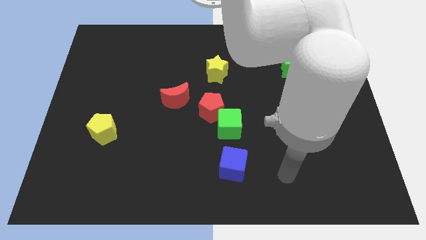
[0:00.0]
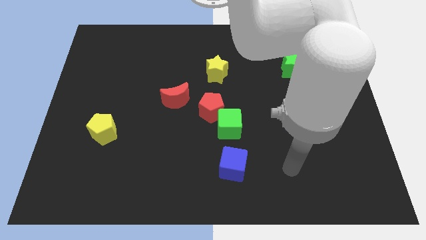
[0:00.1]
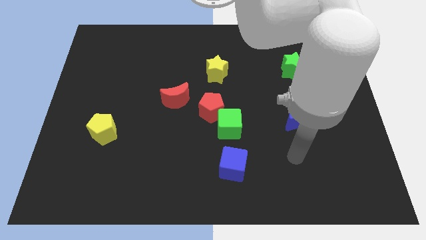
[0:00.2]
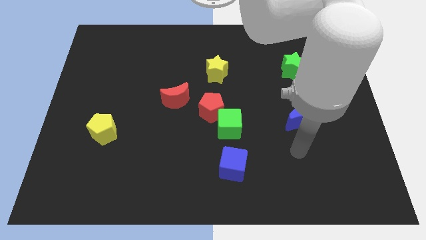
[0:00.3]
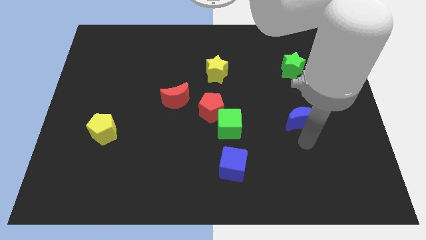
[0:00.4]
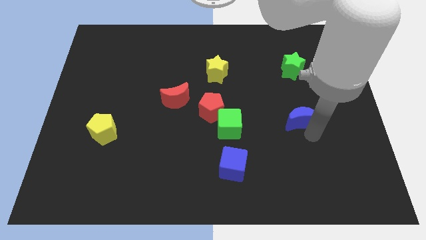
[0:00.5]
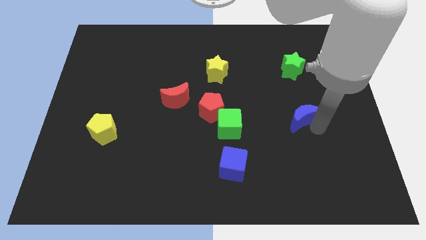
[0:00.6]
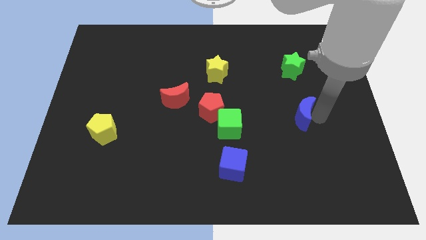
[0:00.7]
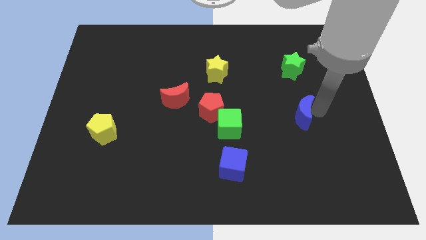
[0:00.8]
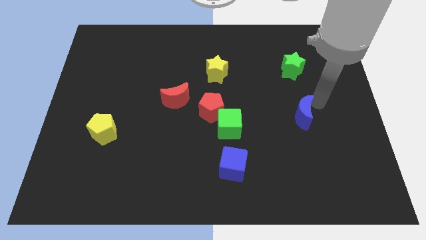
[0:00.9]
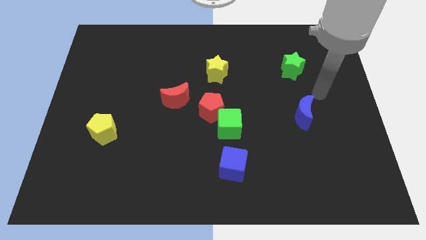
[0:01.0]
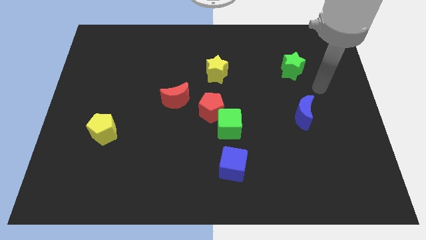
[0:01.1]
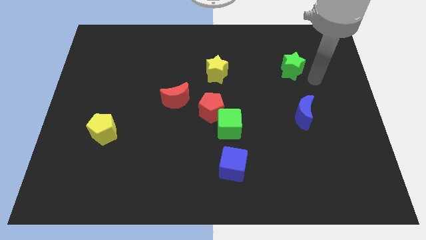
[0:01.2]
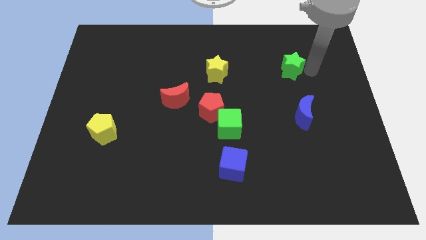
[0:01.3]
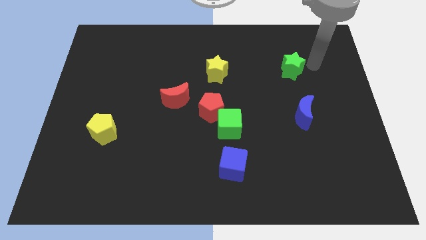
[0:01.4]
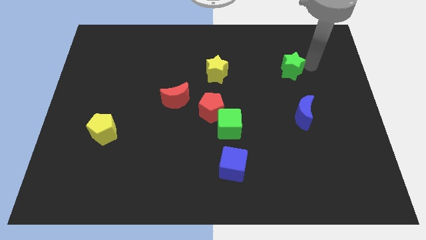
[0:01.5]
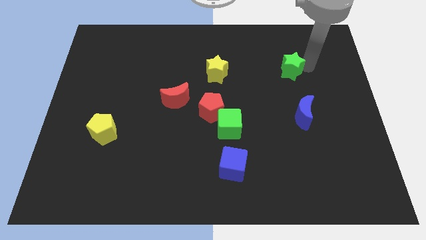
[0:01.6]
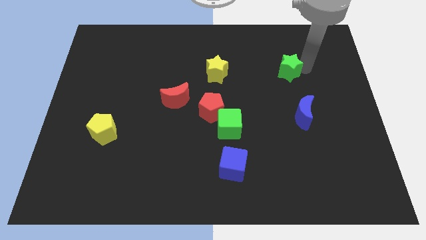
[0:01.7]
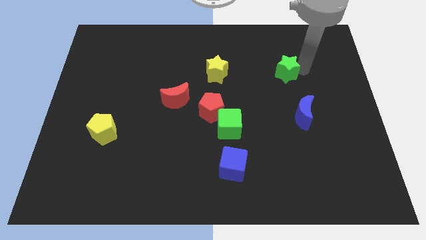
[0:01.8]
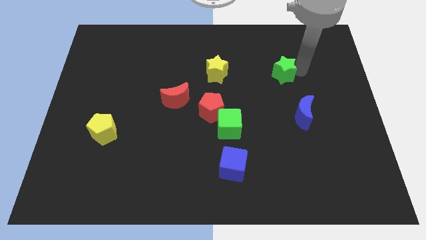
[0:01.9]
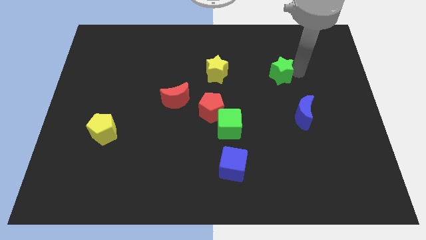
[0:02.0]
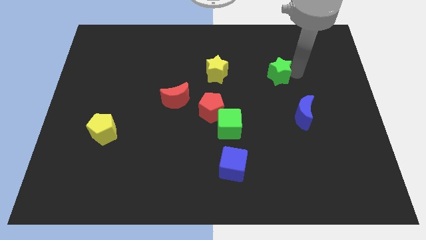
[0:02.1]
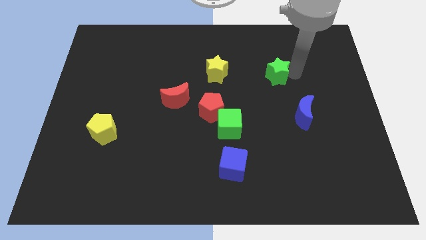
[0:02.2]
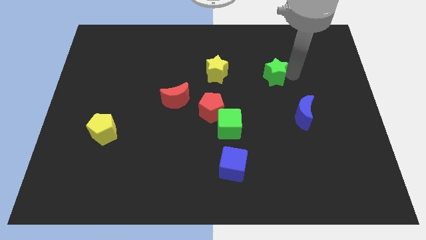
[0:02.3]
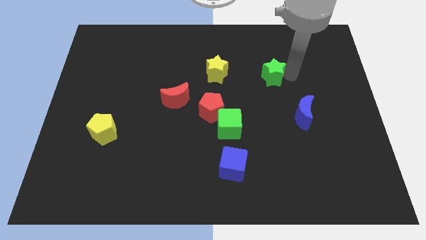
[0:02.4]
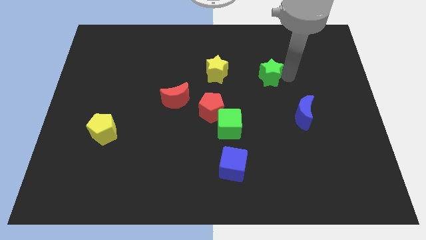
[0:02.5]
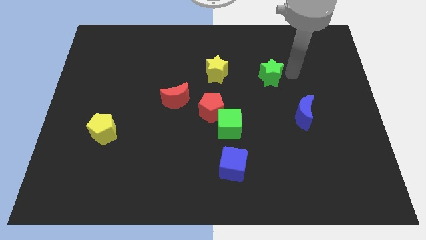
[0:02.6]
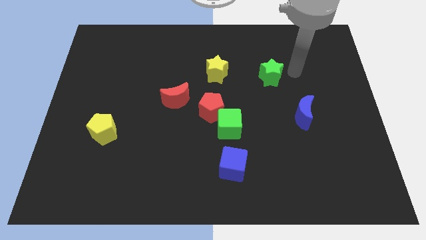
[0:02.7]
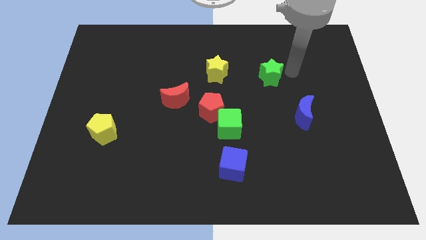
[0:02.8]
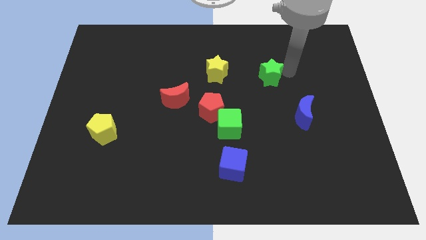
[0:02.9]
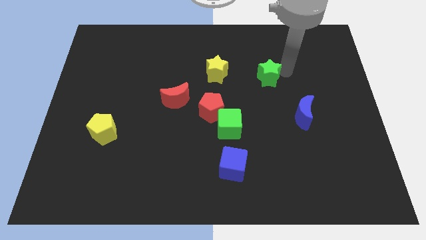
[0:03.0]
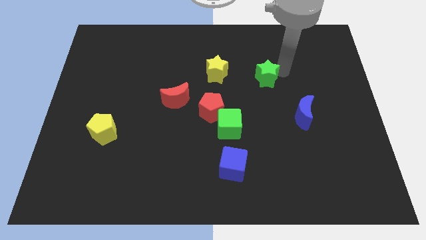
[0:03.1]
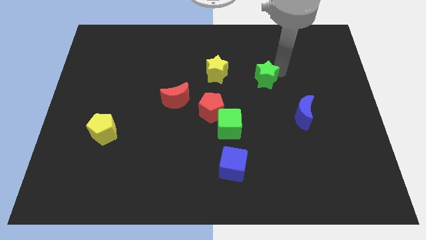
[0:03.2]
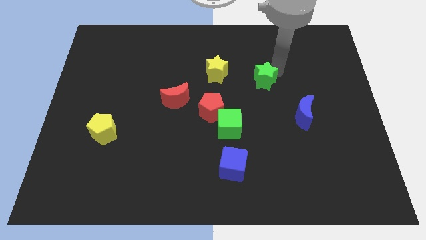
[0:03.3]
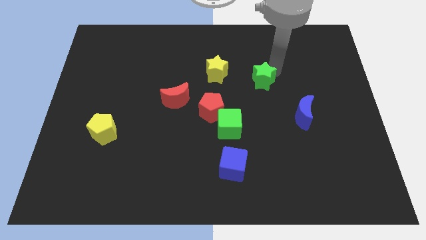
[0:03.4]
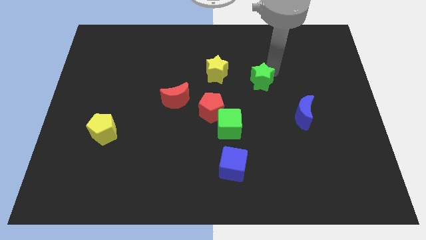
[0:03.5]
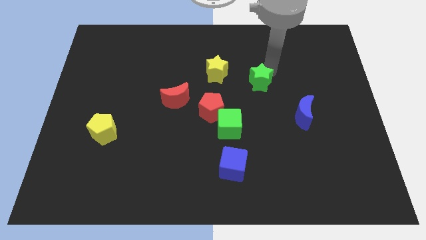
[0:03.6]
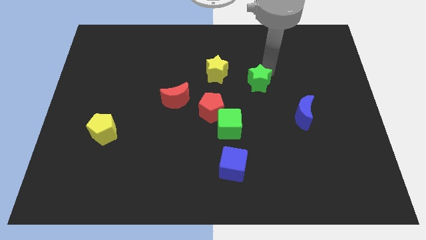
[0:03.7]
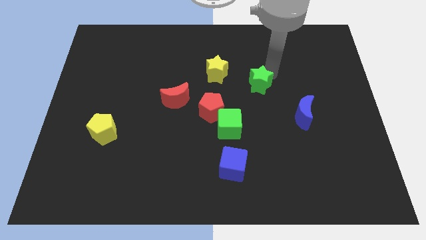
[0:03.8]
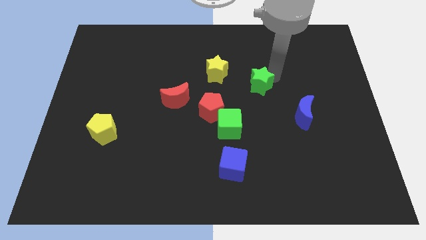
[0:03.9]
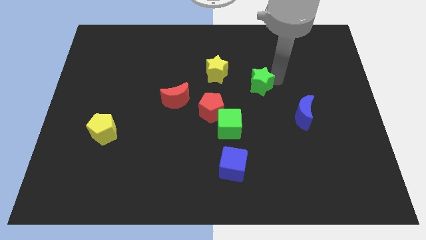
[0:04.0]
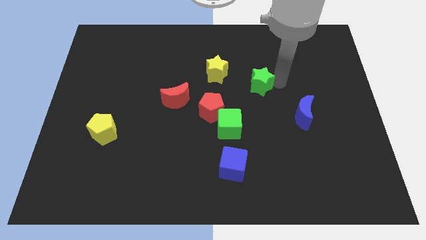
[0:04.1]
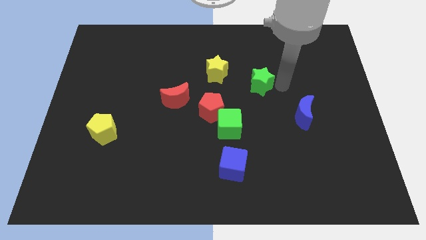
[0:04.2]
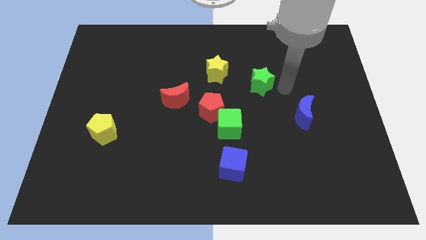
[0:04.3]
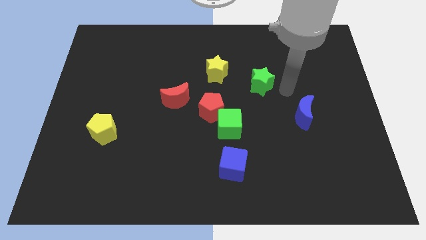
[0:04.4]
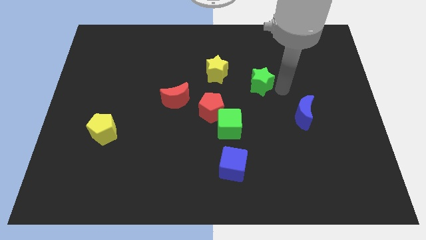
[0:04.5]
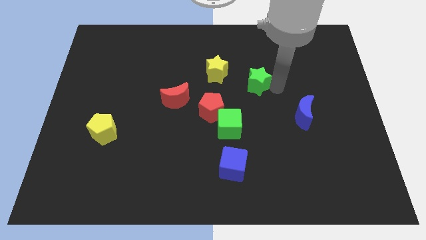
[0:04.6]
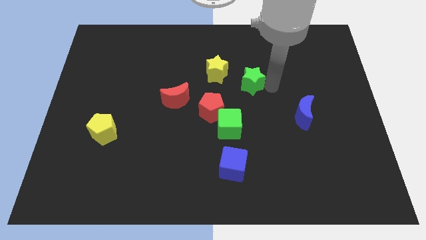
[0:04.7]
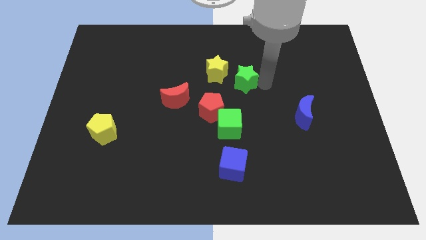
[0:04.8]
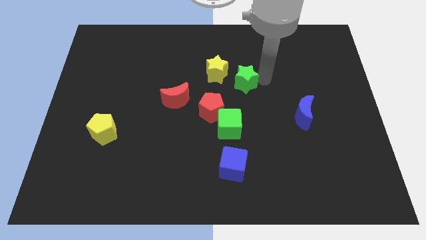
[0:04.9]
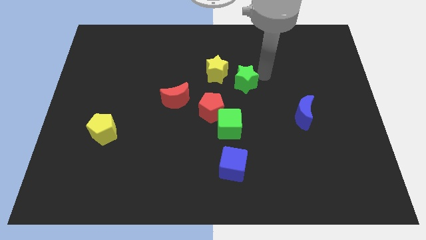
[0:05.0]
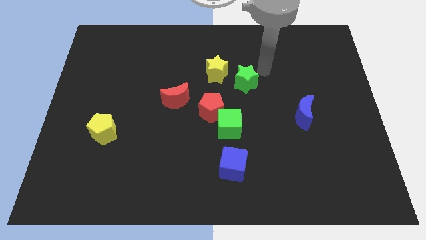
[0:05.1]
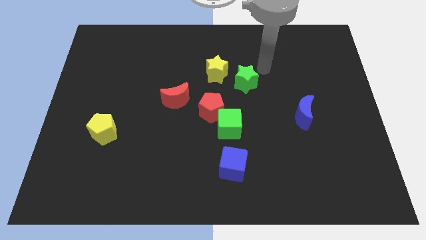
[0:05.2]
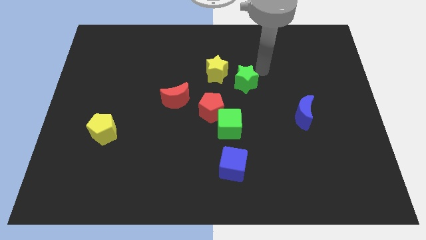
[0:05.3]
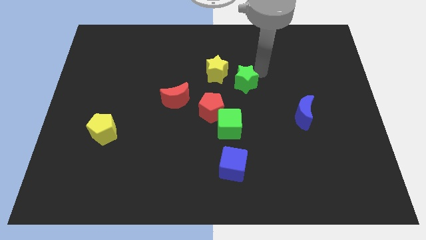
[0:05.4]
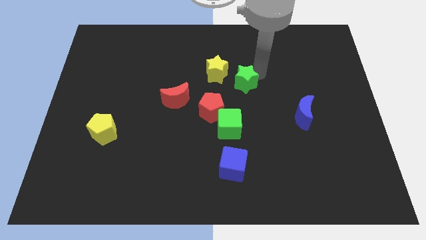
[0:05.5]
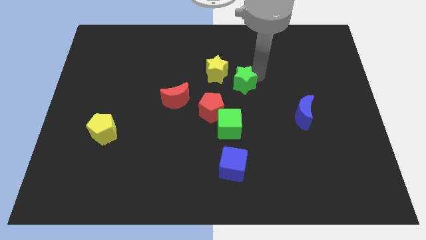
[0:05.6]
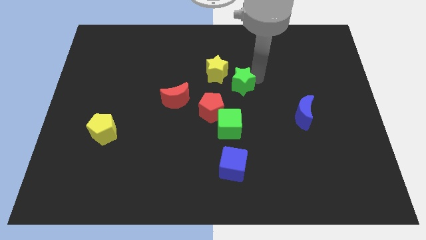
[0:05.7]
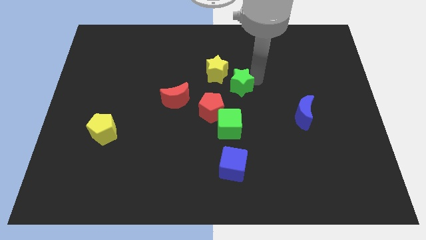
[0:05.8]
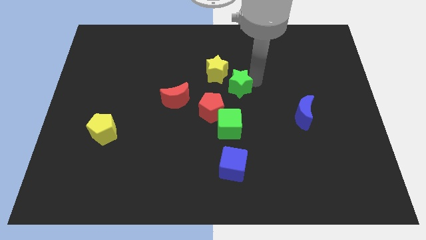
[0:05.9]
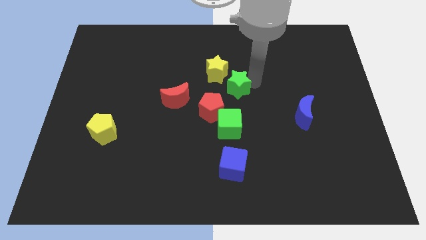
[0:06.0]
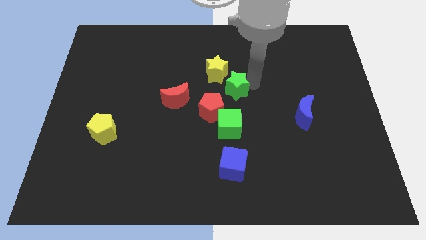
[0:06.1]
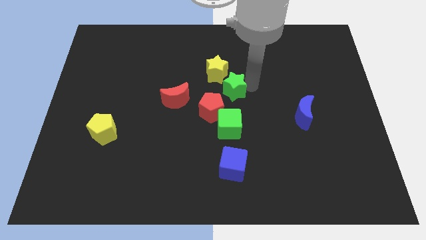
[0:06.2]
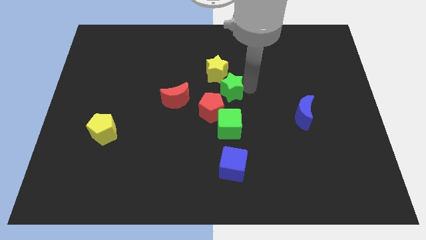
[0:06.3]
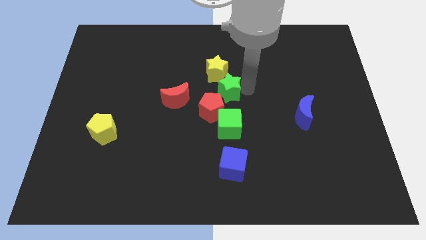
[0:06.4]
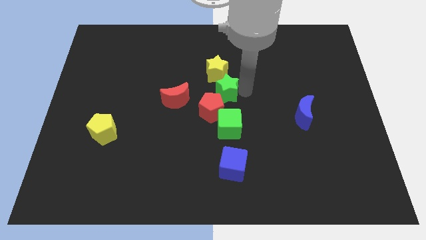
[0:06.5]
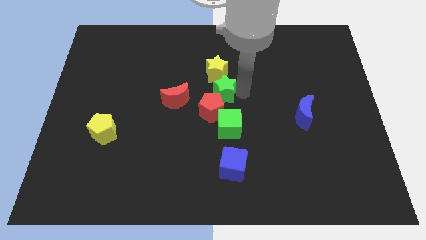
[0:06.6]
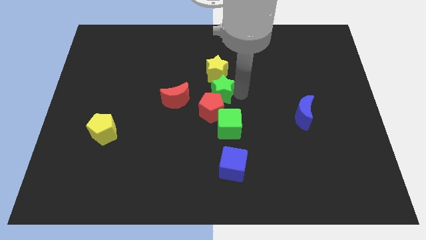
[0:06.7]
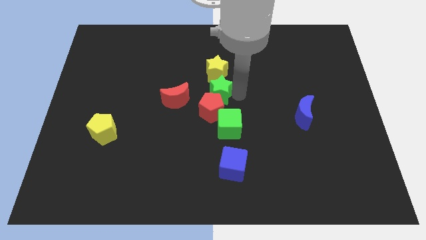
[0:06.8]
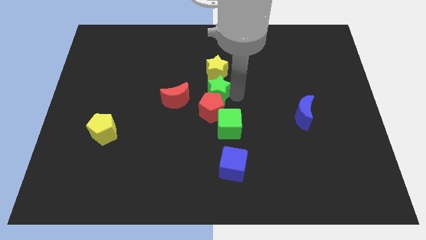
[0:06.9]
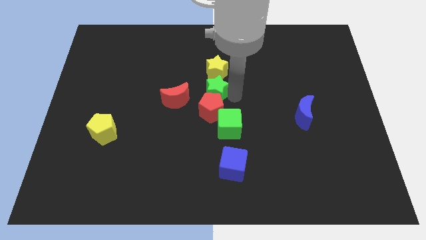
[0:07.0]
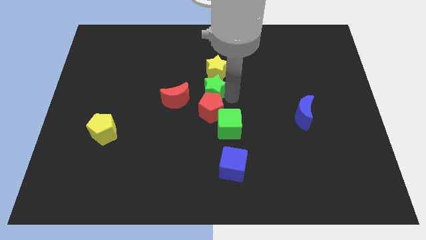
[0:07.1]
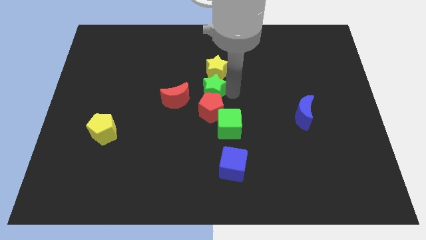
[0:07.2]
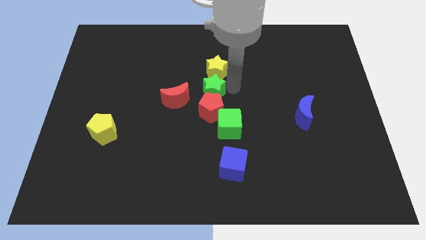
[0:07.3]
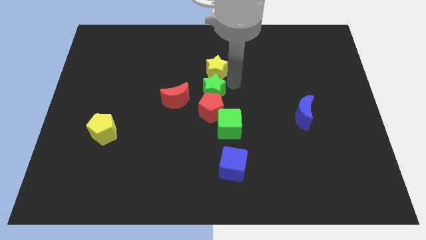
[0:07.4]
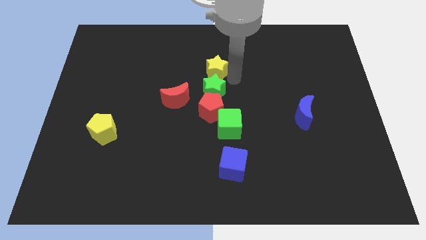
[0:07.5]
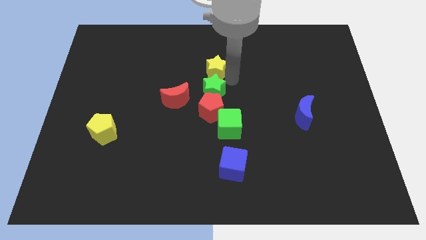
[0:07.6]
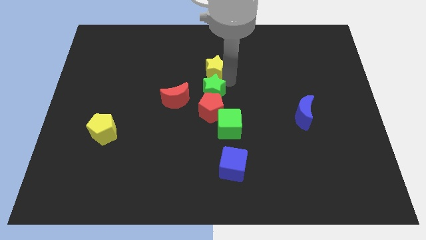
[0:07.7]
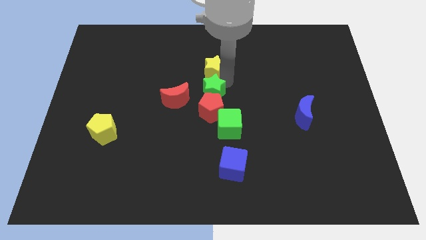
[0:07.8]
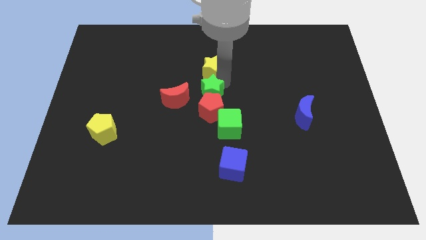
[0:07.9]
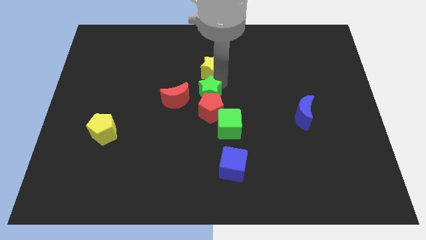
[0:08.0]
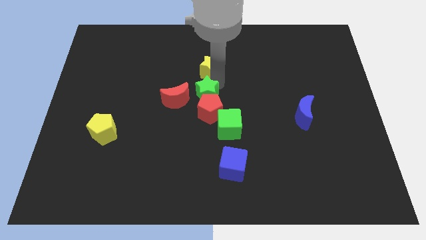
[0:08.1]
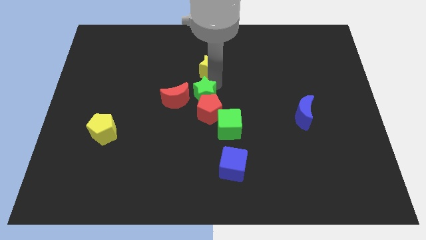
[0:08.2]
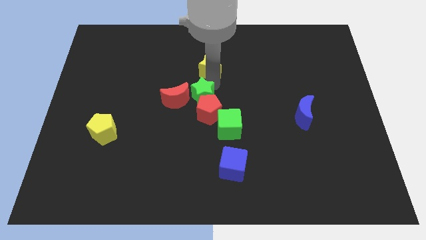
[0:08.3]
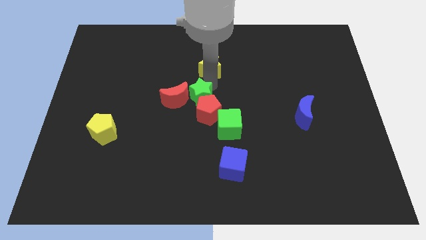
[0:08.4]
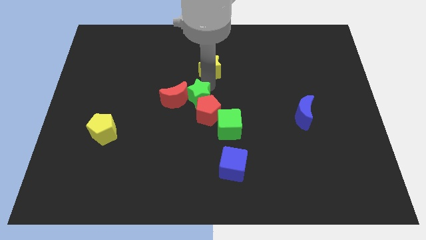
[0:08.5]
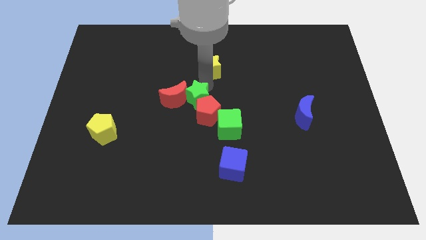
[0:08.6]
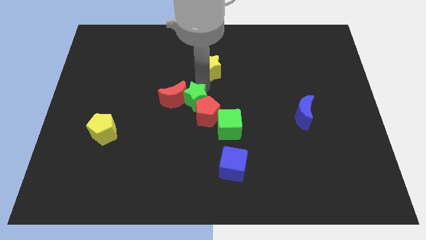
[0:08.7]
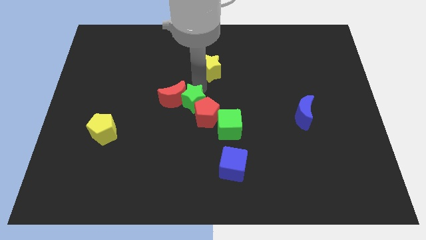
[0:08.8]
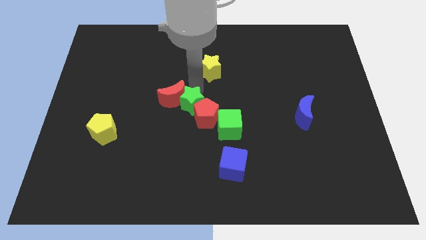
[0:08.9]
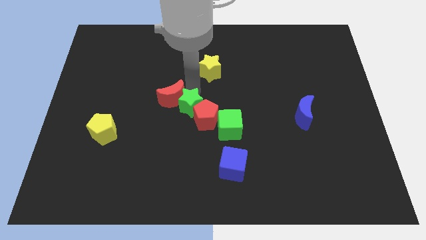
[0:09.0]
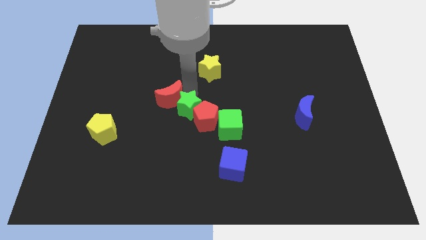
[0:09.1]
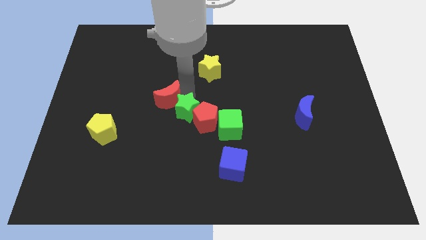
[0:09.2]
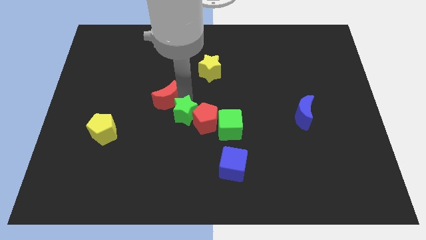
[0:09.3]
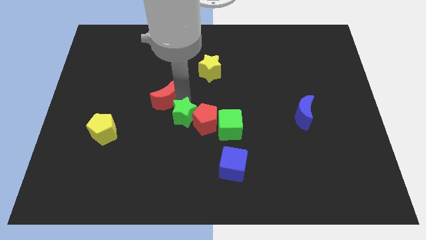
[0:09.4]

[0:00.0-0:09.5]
slide the green star to the bottom left of the red pentagon
